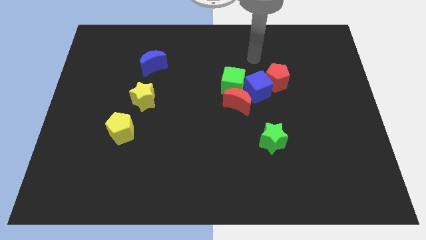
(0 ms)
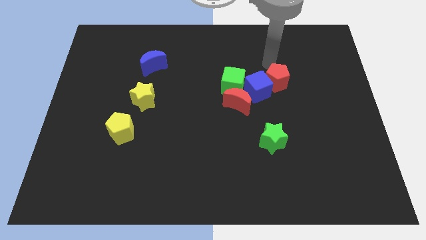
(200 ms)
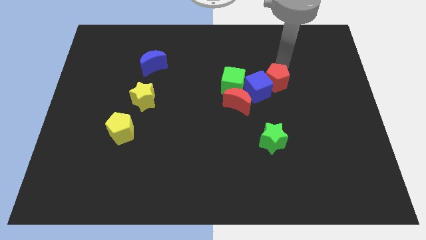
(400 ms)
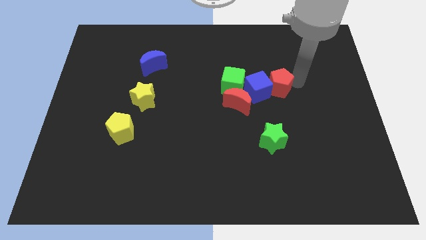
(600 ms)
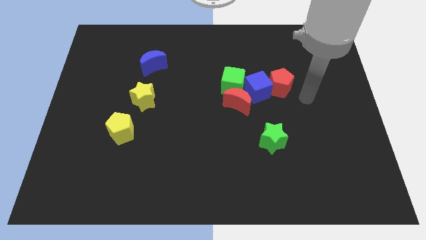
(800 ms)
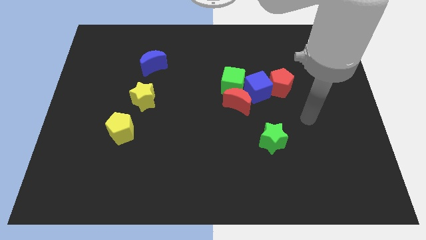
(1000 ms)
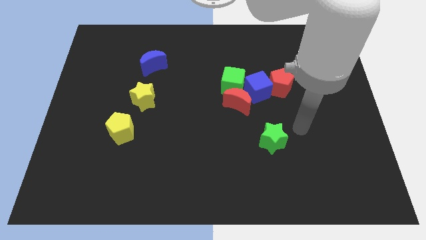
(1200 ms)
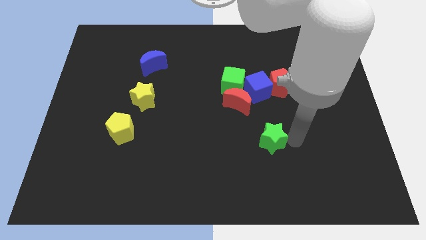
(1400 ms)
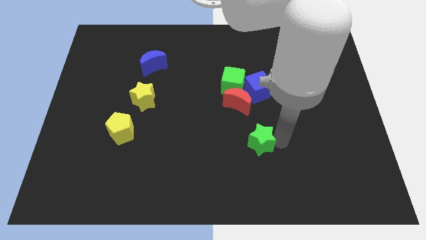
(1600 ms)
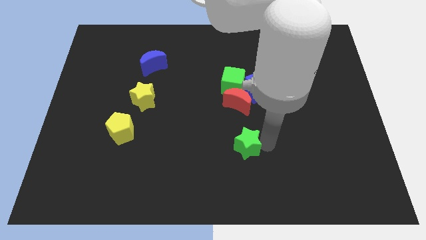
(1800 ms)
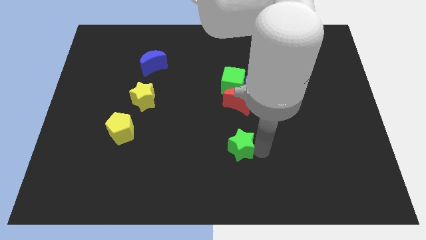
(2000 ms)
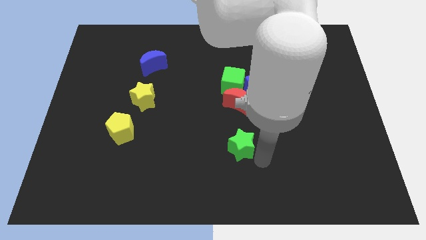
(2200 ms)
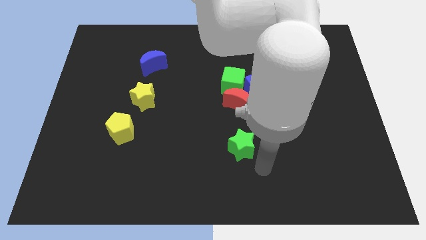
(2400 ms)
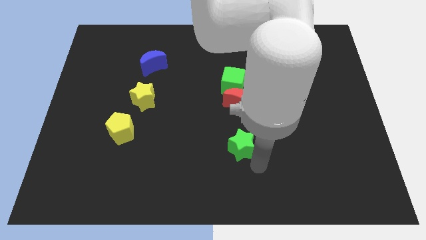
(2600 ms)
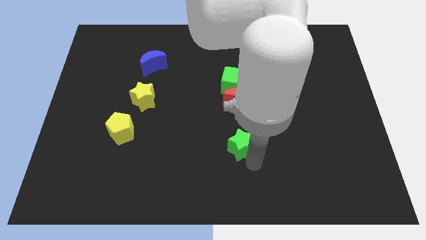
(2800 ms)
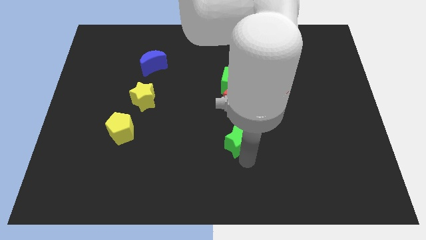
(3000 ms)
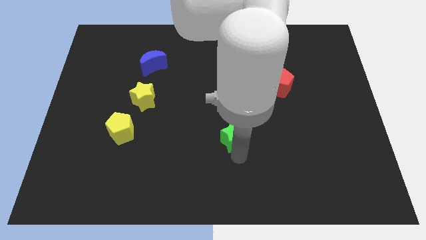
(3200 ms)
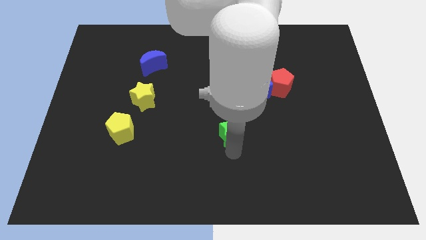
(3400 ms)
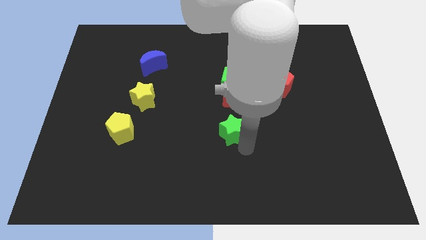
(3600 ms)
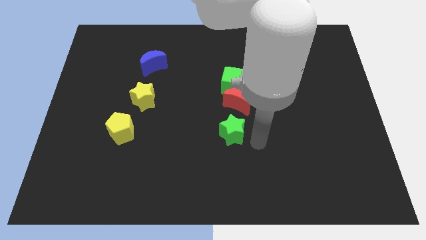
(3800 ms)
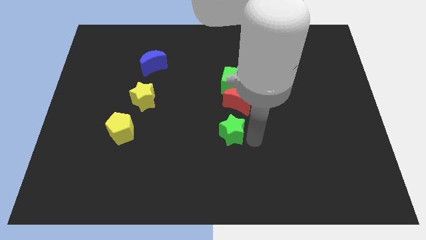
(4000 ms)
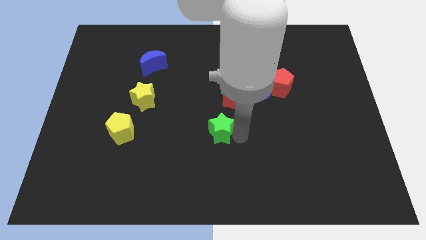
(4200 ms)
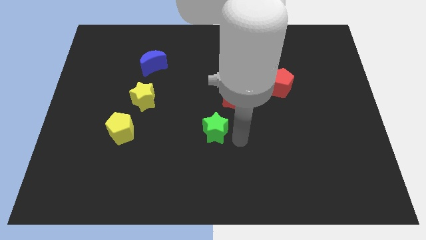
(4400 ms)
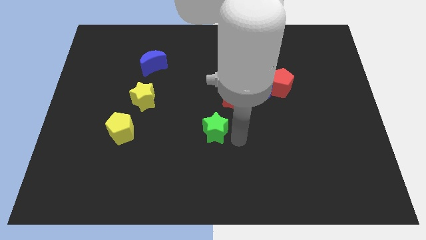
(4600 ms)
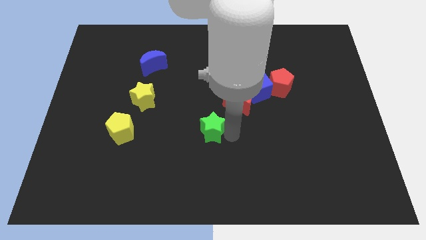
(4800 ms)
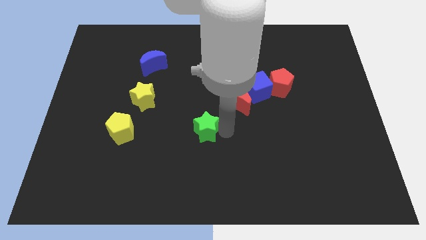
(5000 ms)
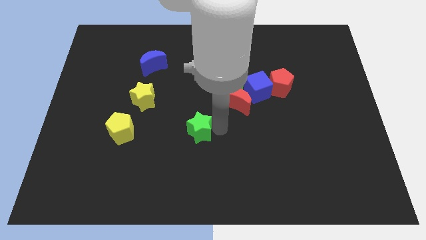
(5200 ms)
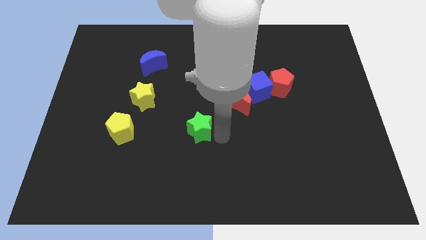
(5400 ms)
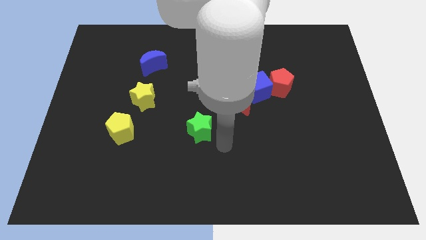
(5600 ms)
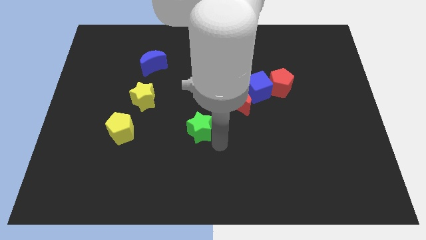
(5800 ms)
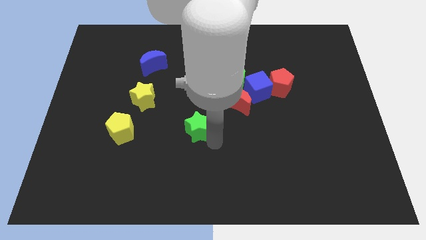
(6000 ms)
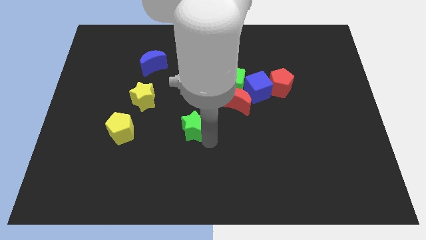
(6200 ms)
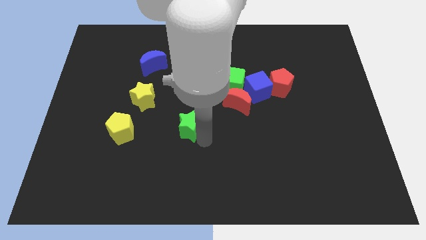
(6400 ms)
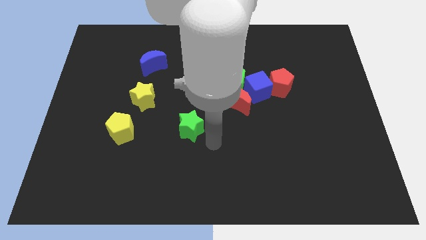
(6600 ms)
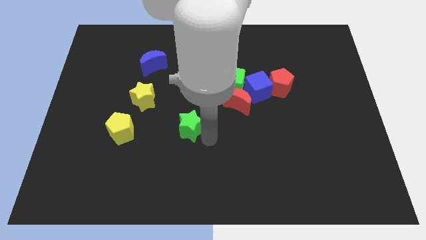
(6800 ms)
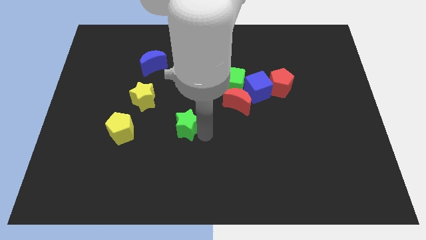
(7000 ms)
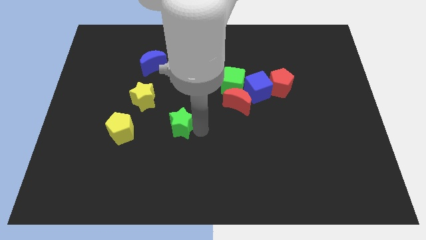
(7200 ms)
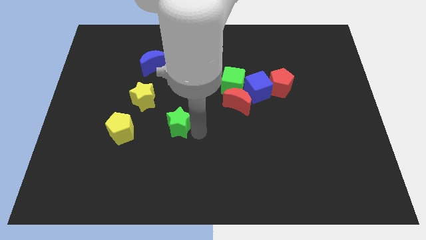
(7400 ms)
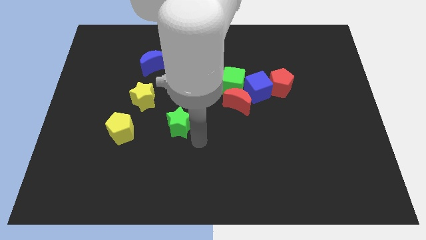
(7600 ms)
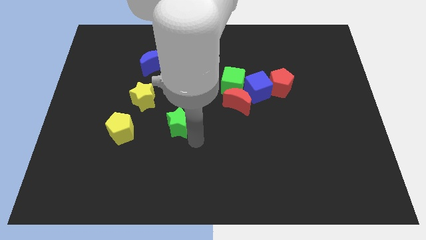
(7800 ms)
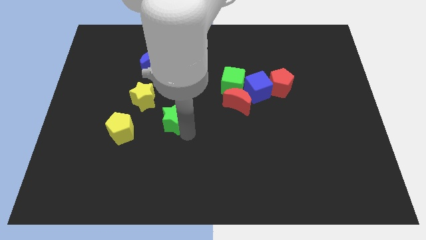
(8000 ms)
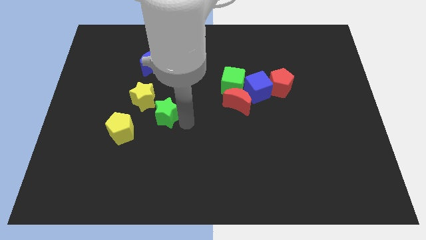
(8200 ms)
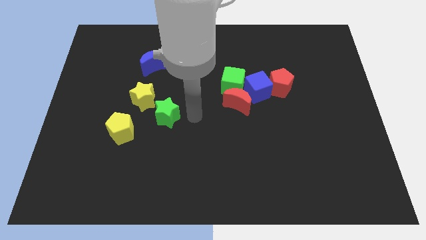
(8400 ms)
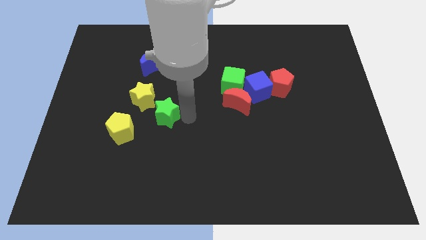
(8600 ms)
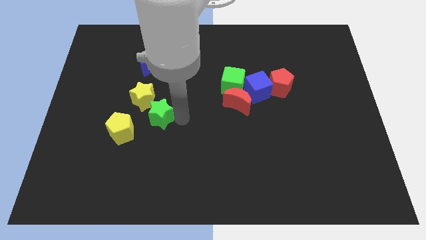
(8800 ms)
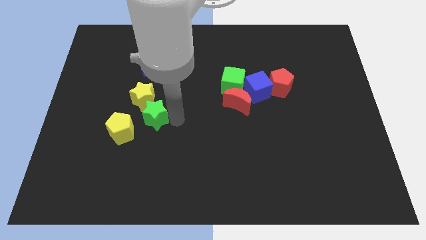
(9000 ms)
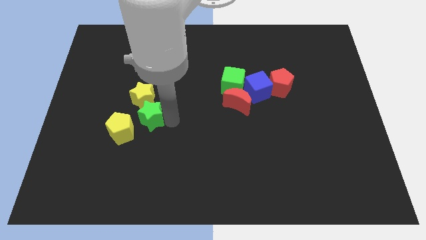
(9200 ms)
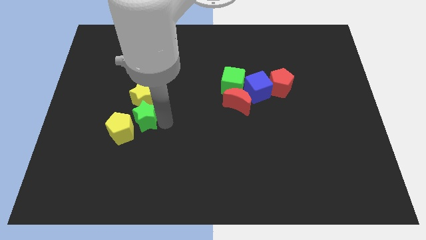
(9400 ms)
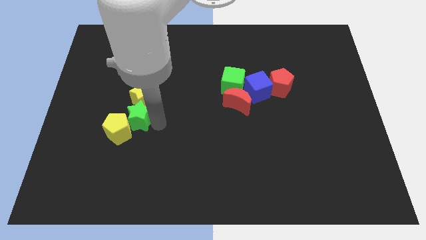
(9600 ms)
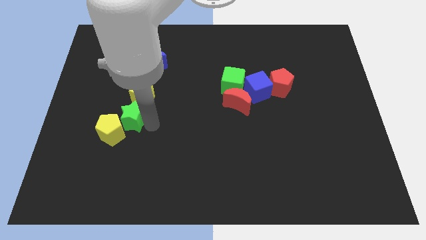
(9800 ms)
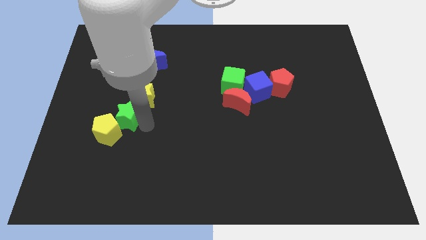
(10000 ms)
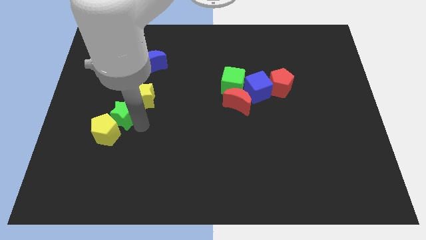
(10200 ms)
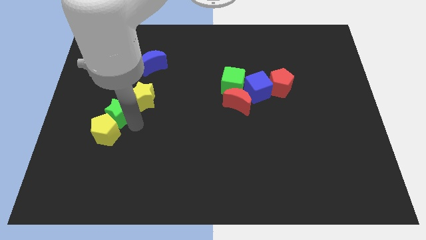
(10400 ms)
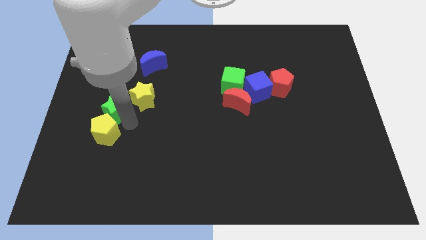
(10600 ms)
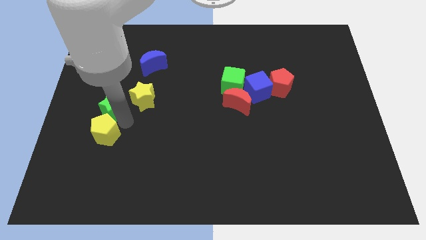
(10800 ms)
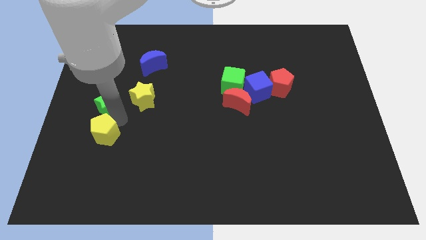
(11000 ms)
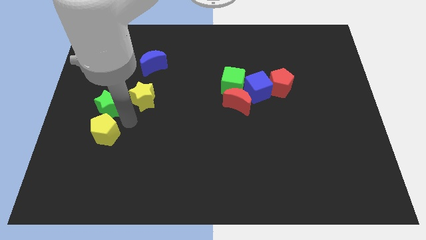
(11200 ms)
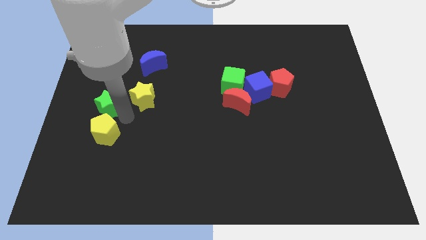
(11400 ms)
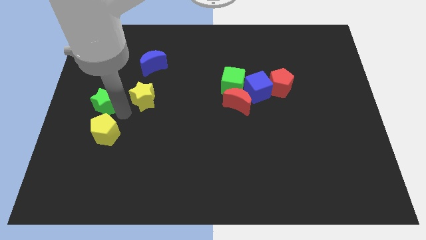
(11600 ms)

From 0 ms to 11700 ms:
put the green star to the left side of the board

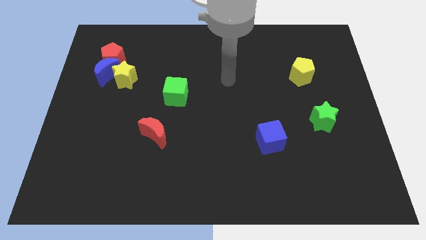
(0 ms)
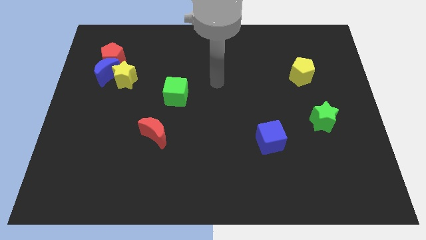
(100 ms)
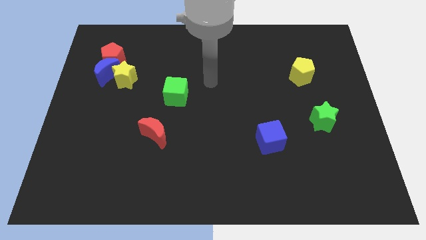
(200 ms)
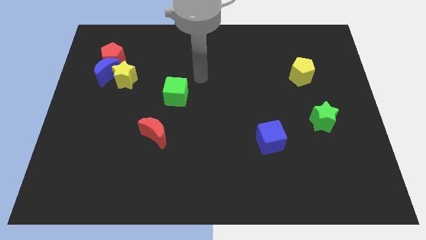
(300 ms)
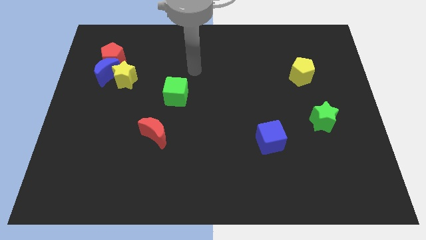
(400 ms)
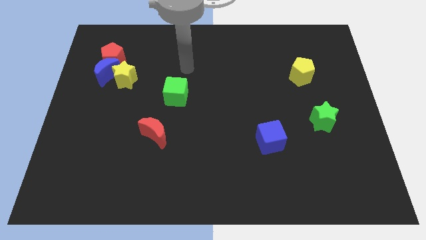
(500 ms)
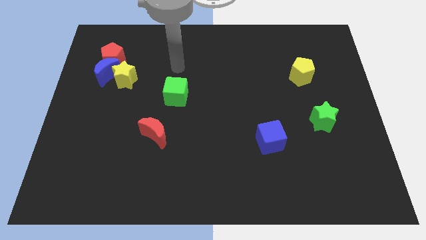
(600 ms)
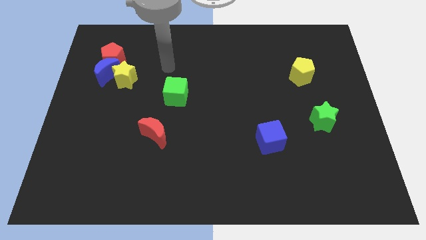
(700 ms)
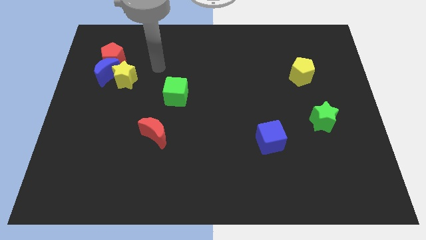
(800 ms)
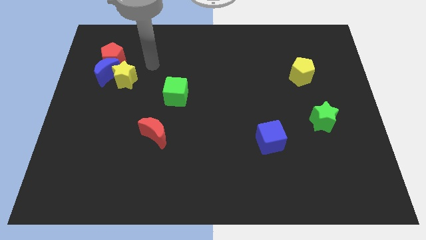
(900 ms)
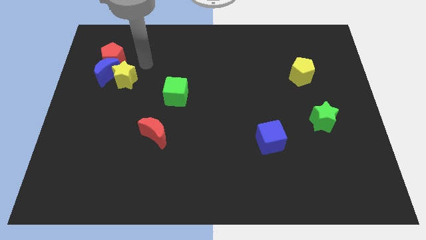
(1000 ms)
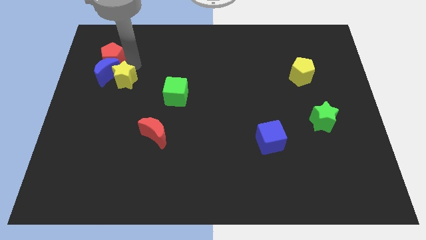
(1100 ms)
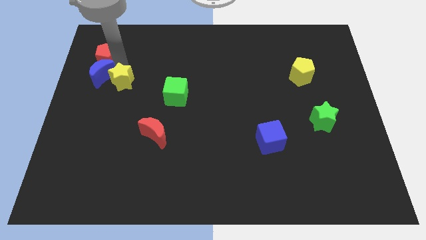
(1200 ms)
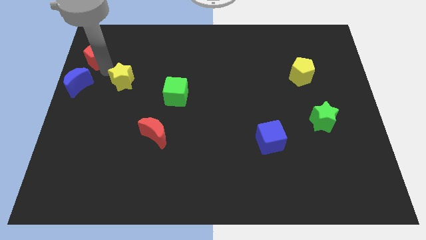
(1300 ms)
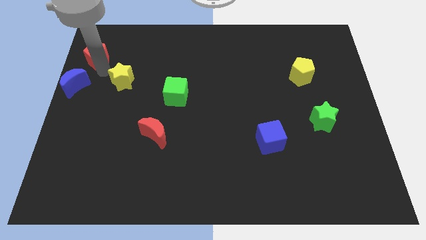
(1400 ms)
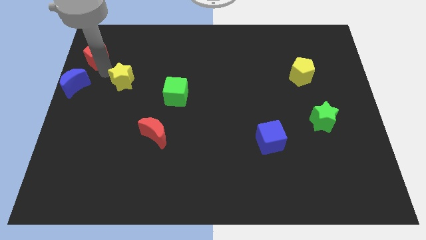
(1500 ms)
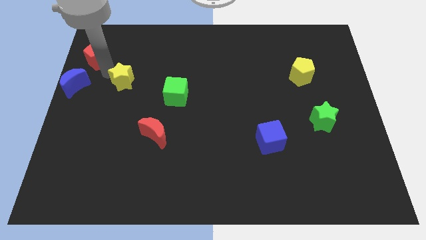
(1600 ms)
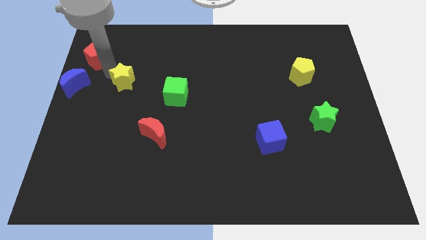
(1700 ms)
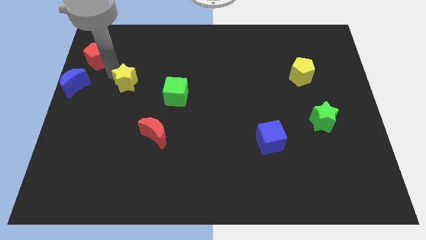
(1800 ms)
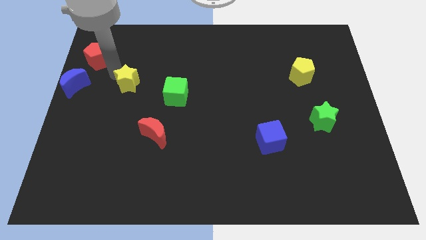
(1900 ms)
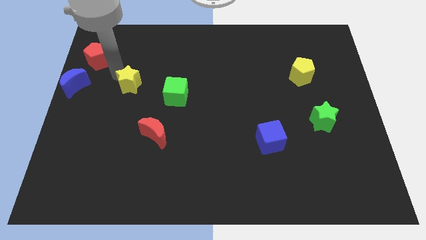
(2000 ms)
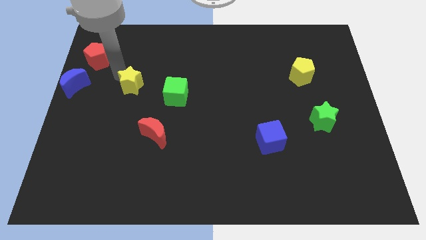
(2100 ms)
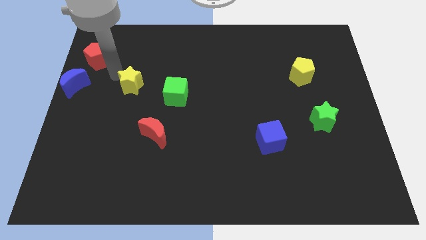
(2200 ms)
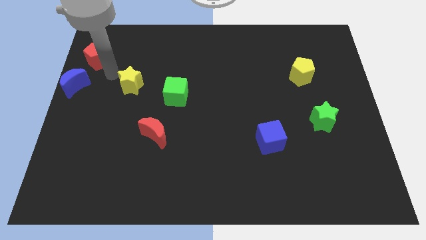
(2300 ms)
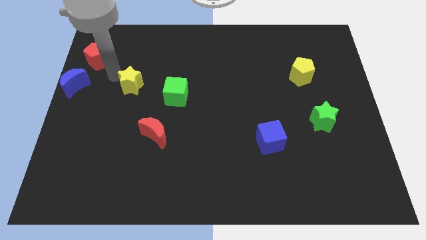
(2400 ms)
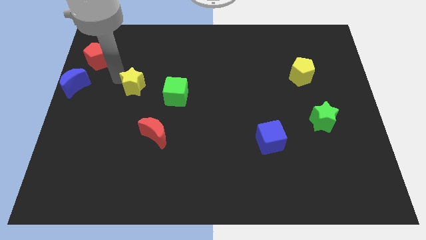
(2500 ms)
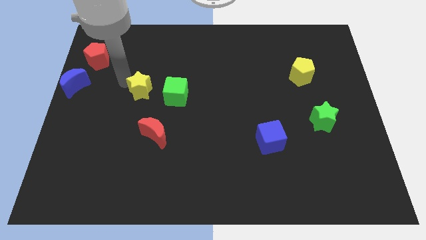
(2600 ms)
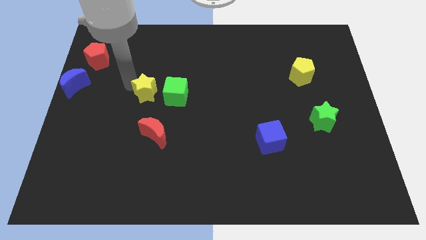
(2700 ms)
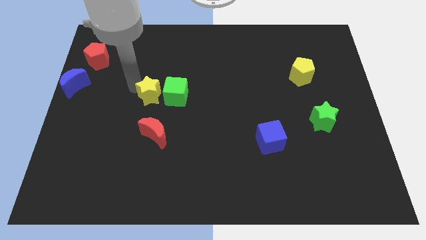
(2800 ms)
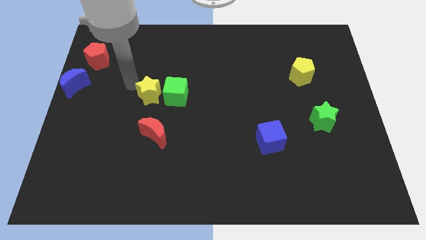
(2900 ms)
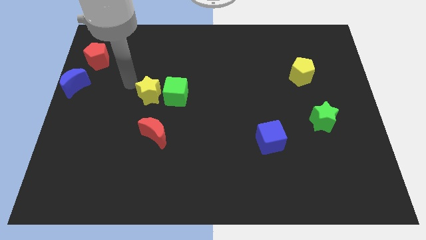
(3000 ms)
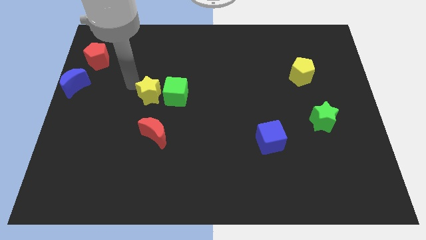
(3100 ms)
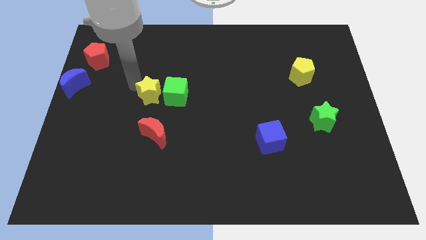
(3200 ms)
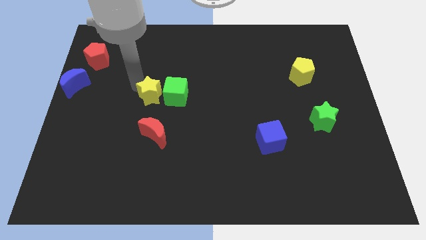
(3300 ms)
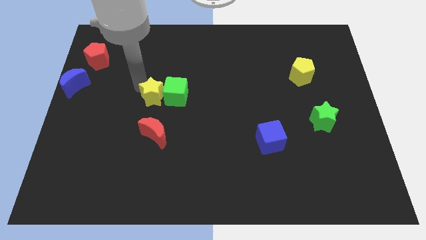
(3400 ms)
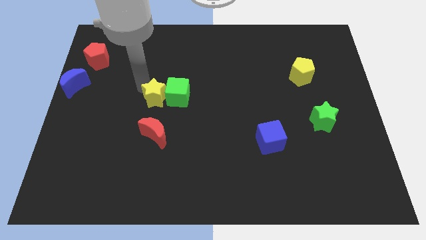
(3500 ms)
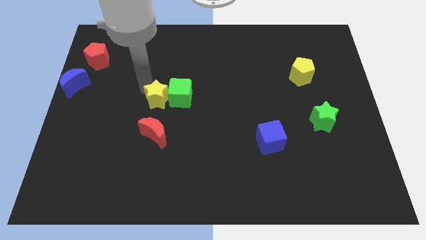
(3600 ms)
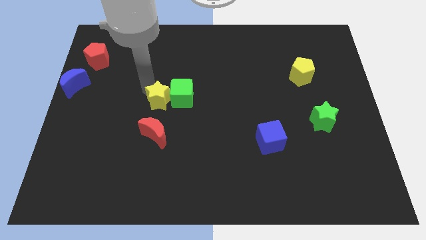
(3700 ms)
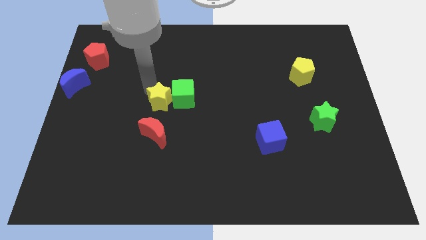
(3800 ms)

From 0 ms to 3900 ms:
slide the yellow star to the middle of the board
